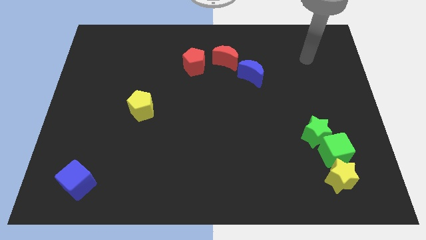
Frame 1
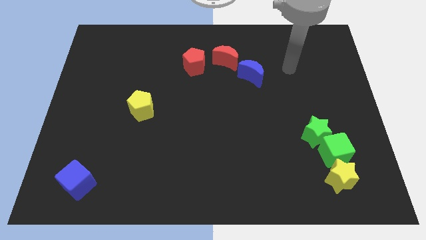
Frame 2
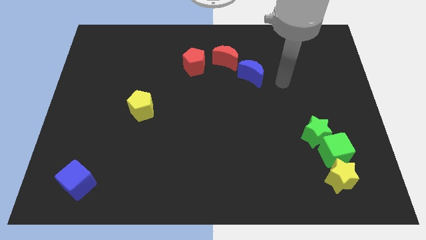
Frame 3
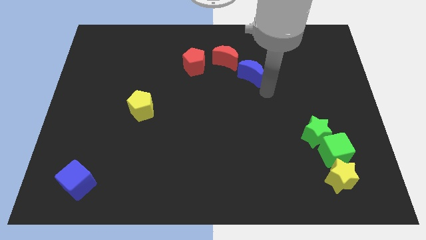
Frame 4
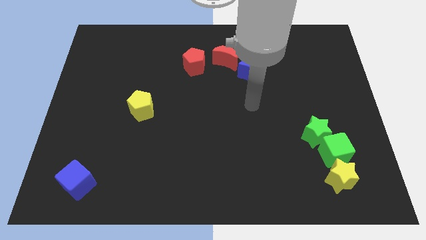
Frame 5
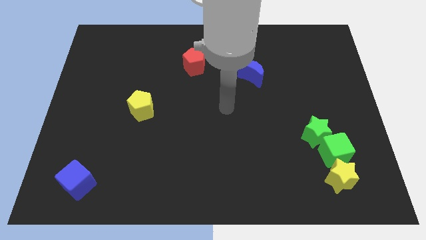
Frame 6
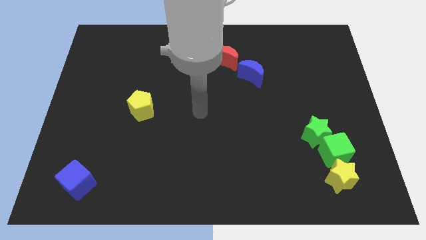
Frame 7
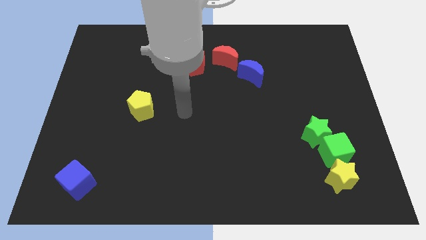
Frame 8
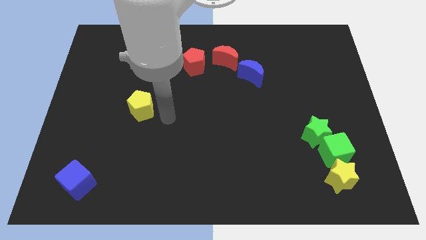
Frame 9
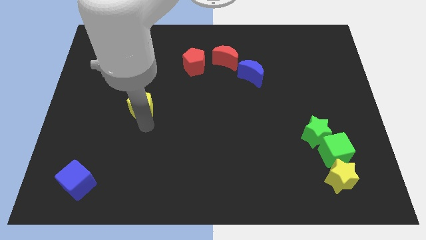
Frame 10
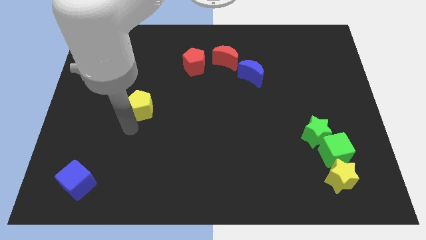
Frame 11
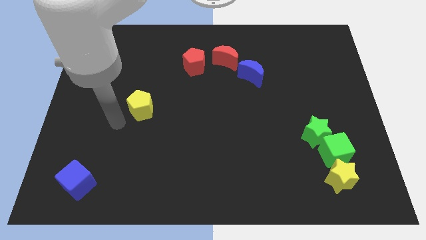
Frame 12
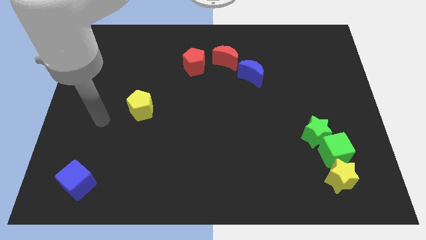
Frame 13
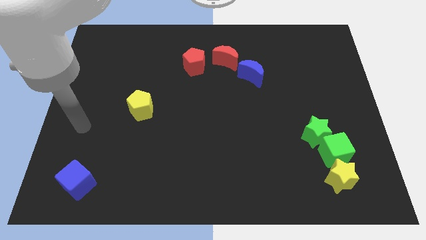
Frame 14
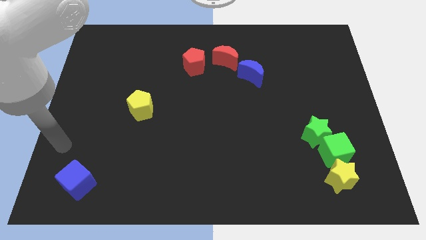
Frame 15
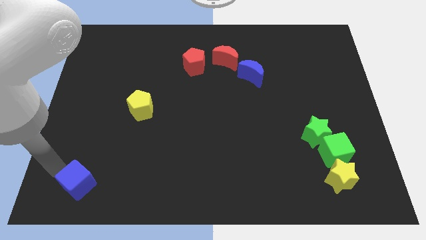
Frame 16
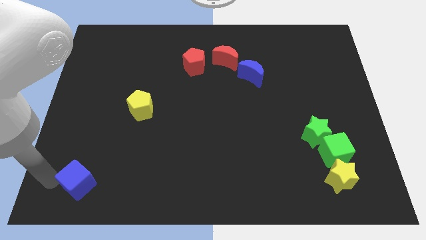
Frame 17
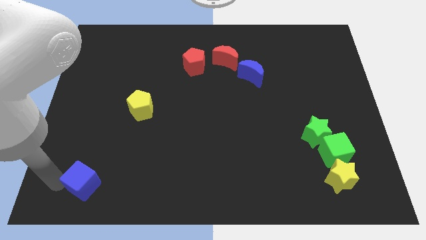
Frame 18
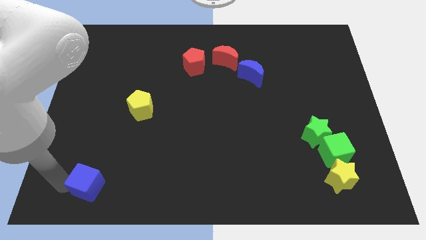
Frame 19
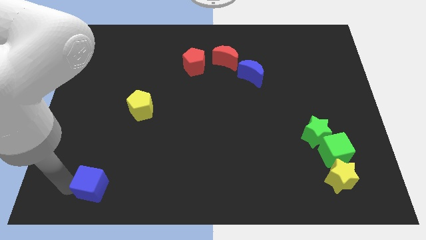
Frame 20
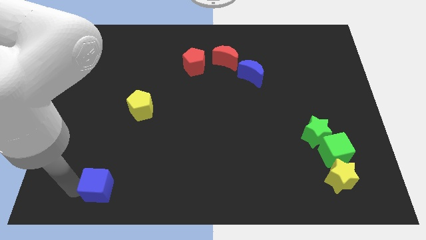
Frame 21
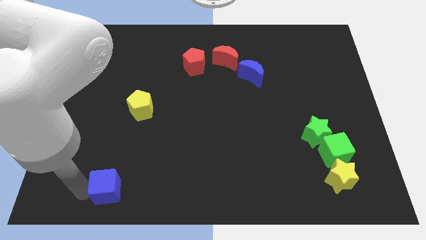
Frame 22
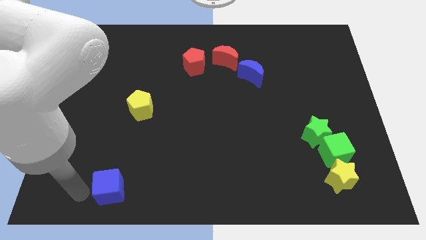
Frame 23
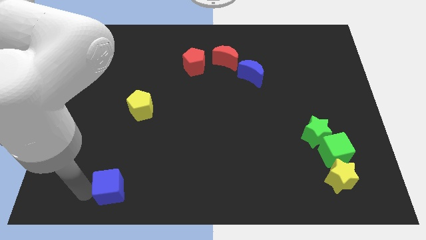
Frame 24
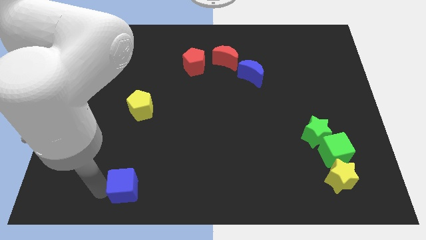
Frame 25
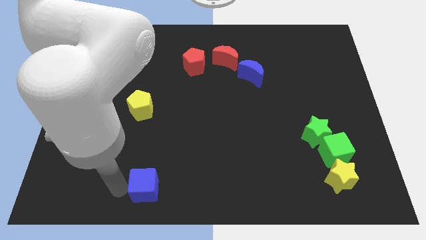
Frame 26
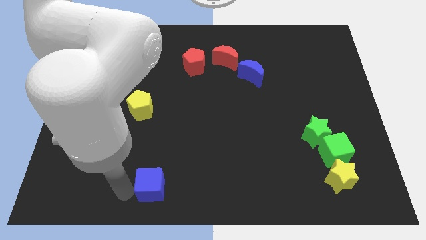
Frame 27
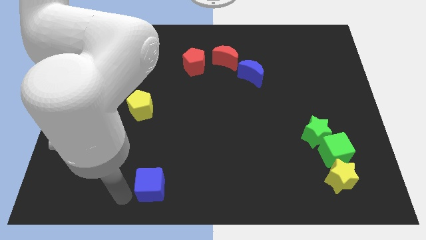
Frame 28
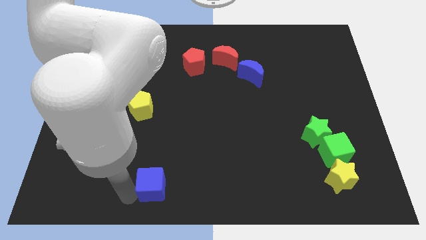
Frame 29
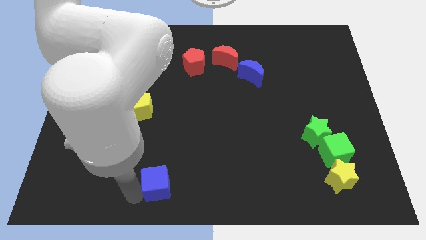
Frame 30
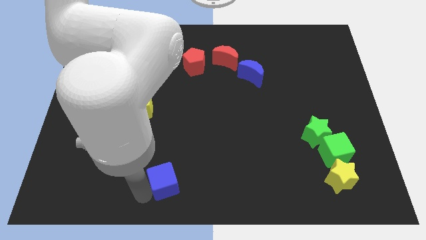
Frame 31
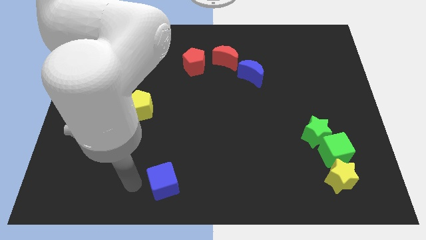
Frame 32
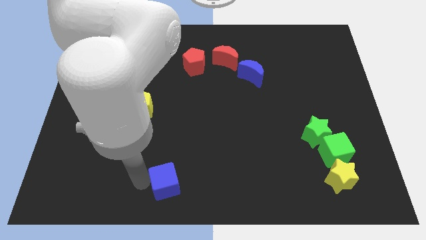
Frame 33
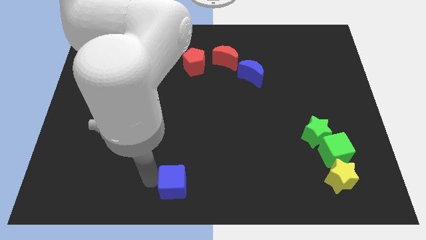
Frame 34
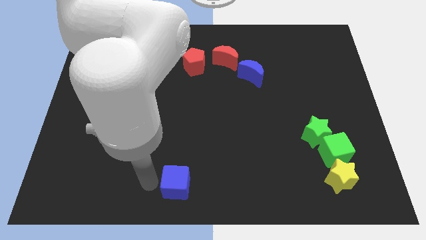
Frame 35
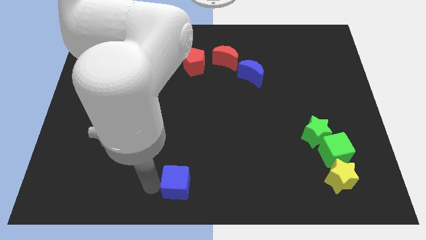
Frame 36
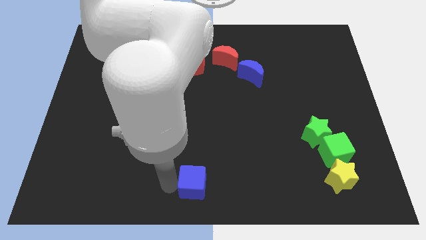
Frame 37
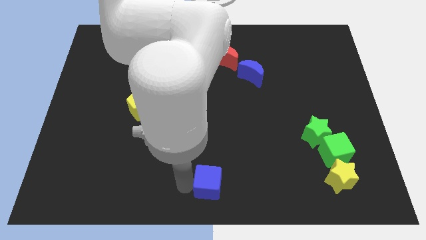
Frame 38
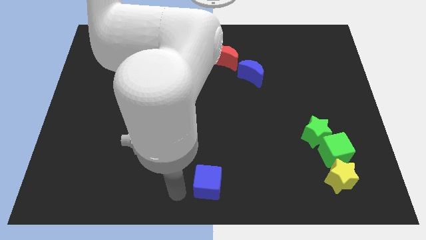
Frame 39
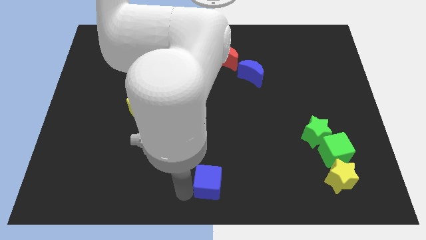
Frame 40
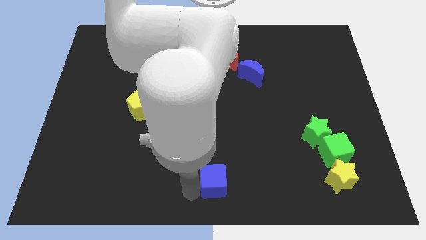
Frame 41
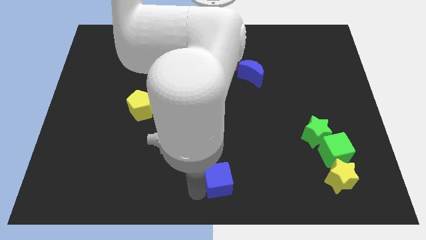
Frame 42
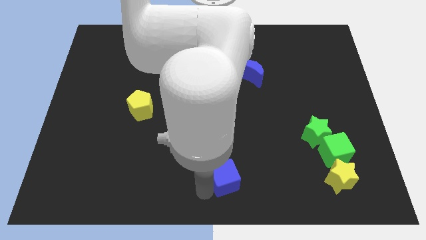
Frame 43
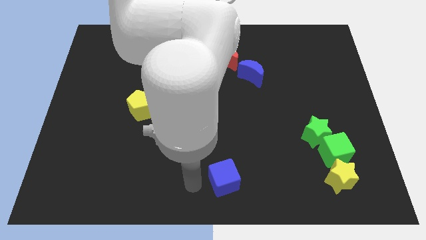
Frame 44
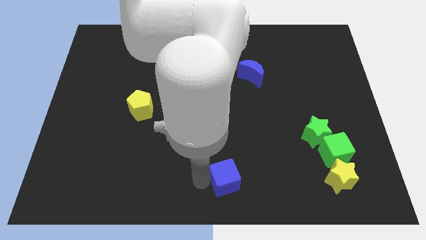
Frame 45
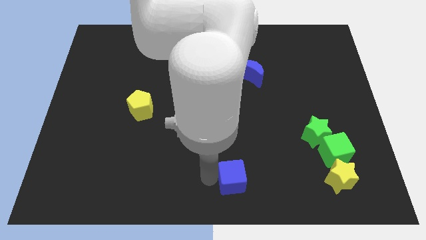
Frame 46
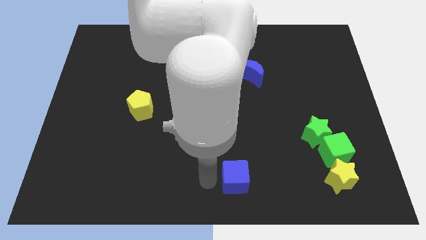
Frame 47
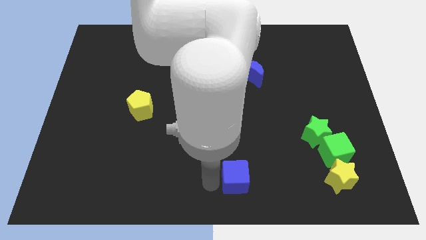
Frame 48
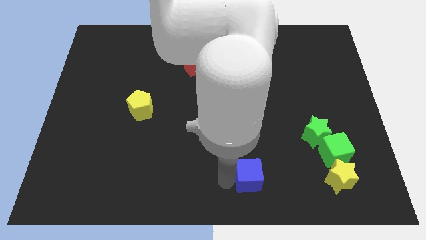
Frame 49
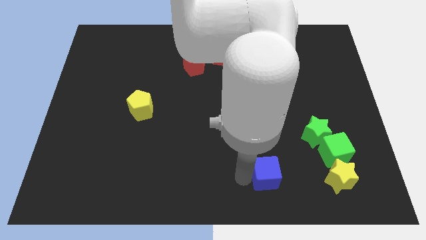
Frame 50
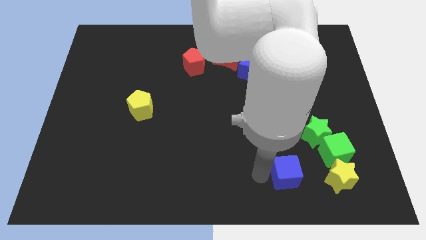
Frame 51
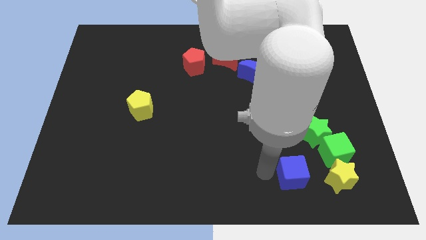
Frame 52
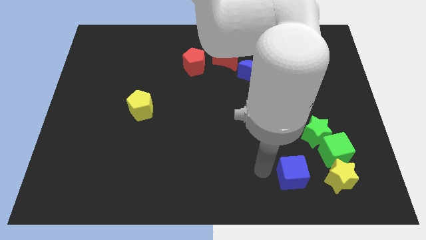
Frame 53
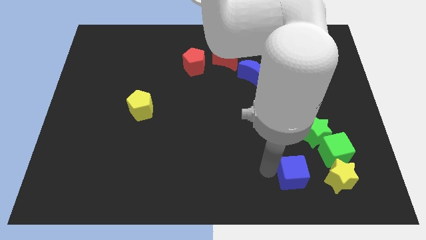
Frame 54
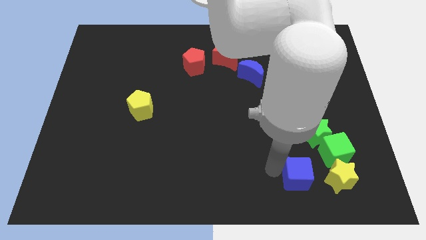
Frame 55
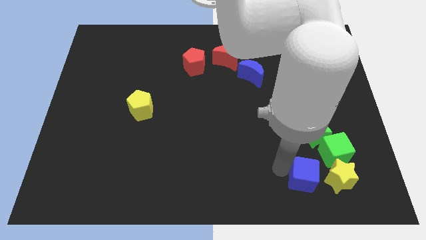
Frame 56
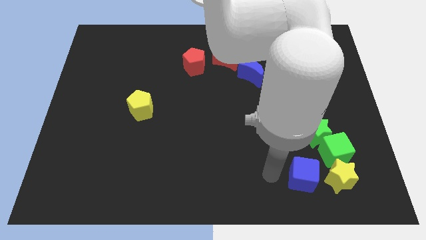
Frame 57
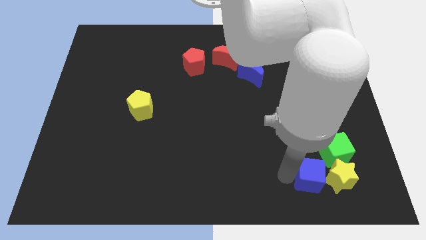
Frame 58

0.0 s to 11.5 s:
slide the blue cube next to the yellow star

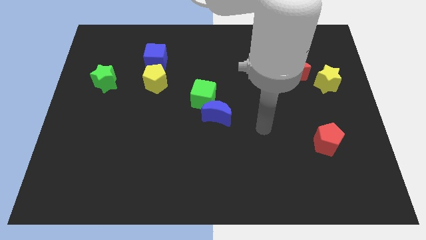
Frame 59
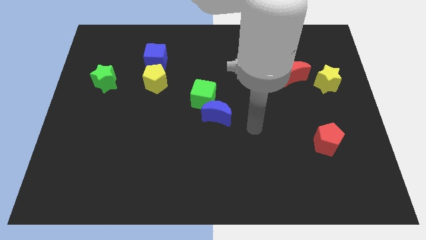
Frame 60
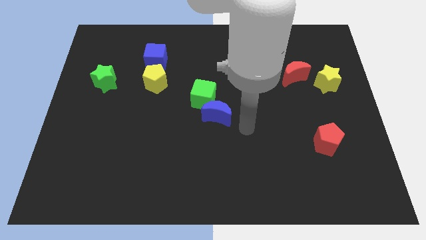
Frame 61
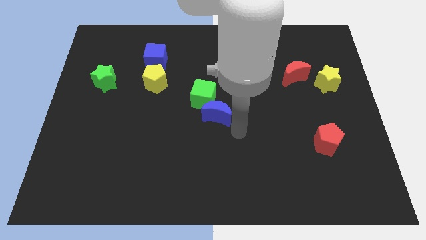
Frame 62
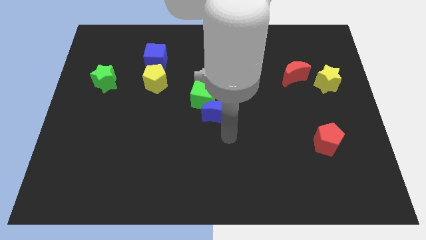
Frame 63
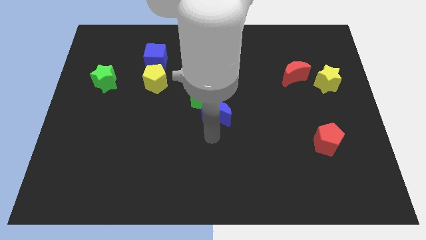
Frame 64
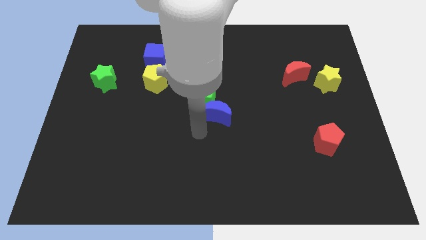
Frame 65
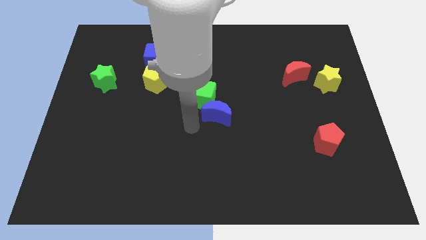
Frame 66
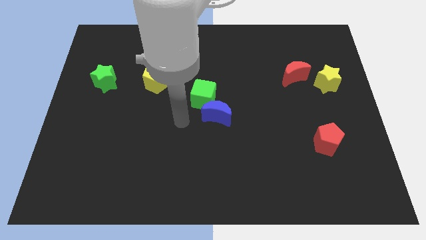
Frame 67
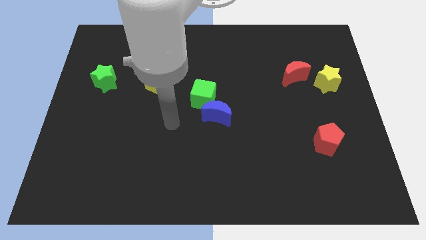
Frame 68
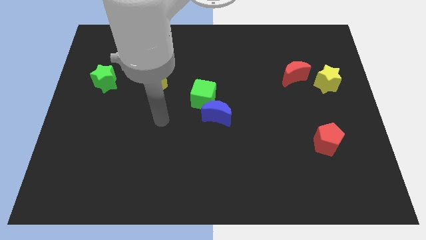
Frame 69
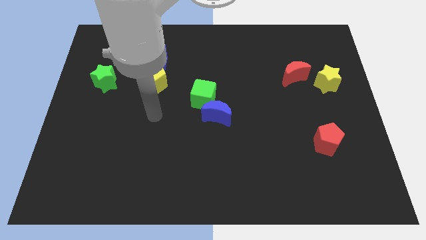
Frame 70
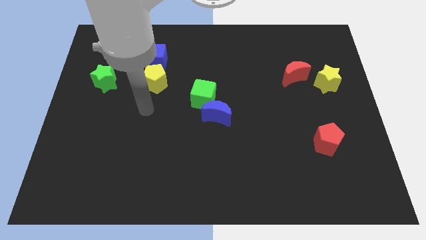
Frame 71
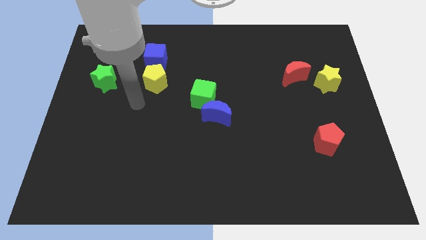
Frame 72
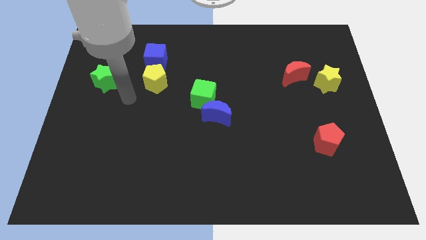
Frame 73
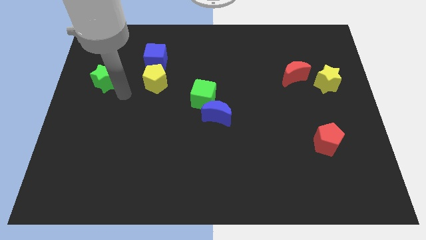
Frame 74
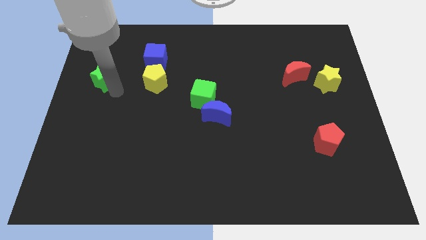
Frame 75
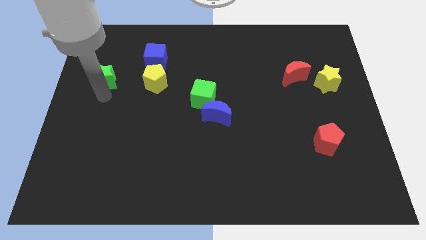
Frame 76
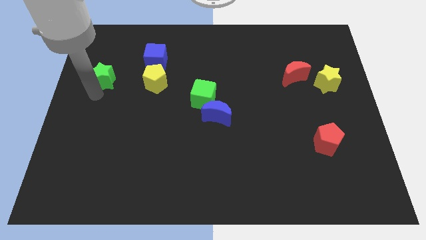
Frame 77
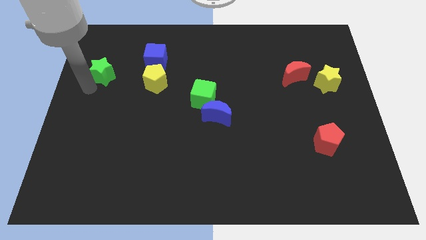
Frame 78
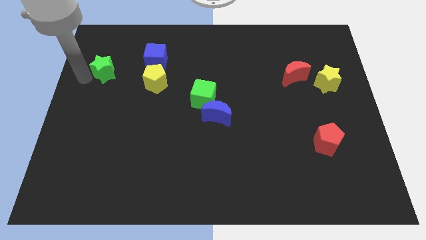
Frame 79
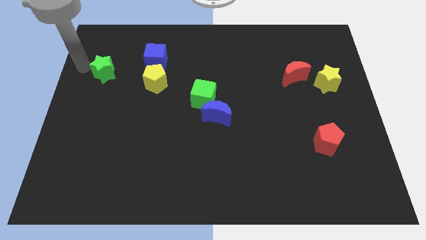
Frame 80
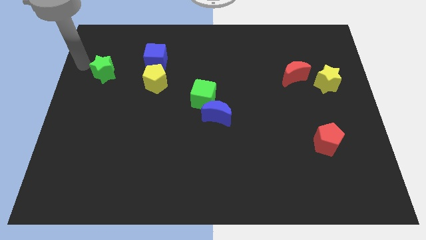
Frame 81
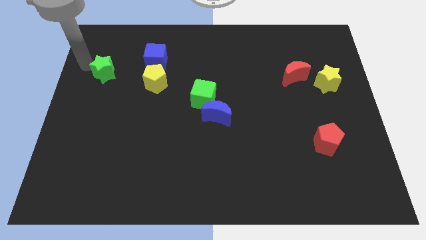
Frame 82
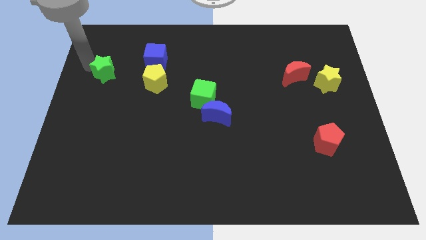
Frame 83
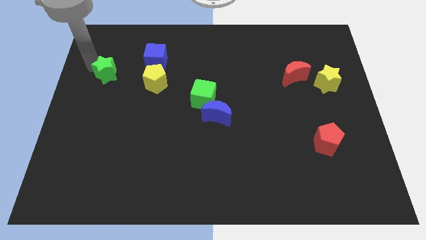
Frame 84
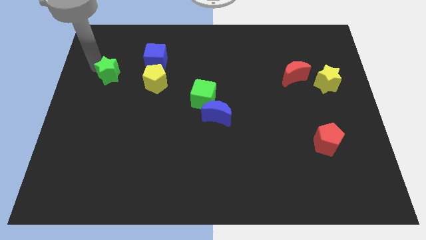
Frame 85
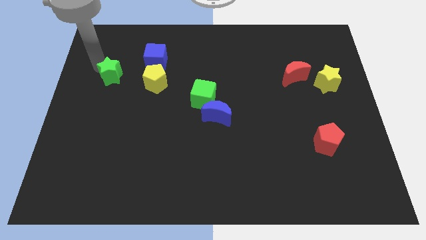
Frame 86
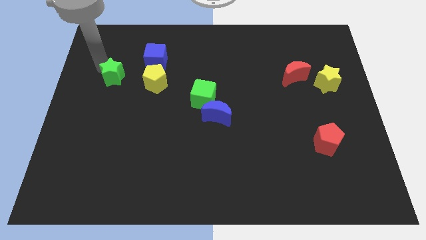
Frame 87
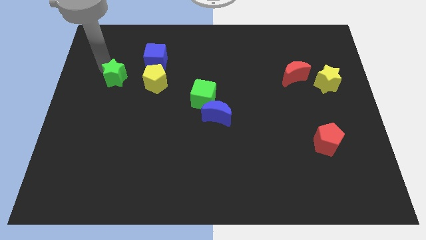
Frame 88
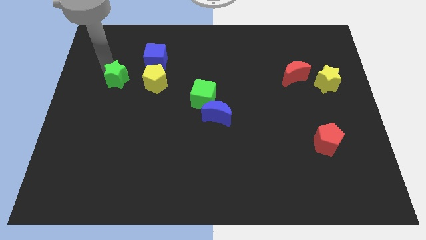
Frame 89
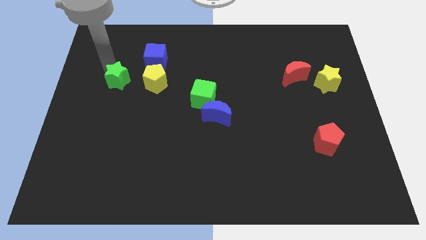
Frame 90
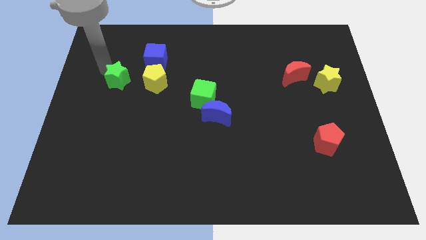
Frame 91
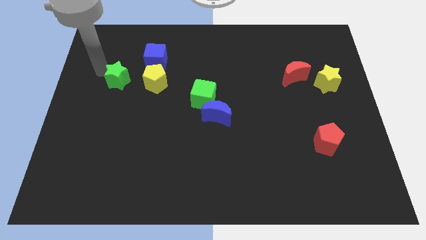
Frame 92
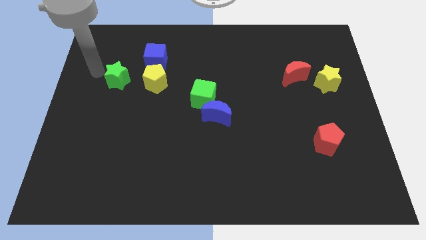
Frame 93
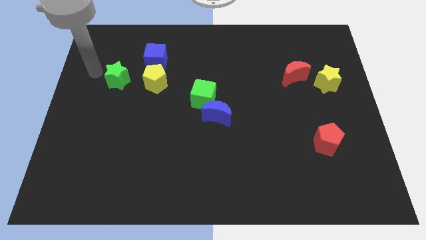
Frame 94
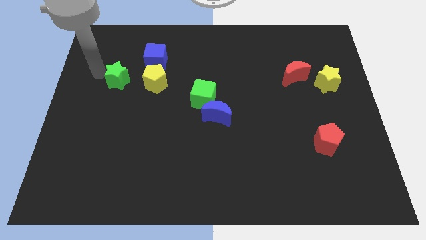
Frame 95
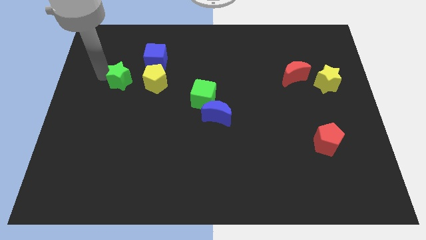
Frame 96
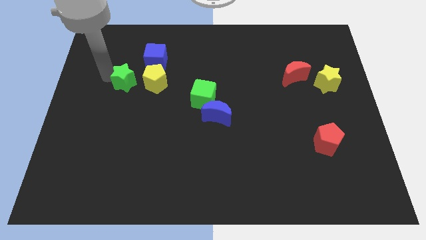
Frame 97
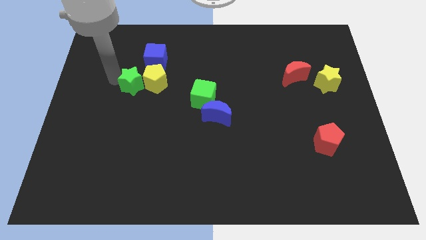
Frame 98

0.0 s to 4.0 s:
slide the green star next to the yellow pentagon
